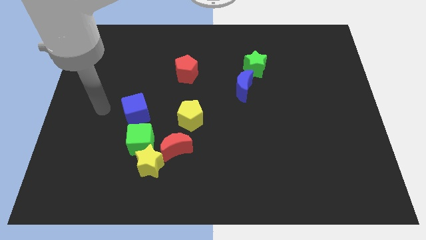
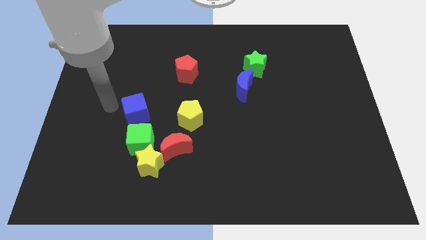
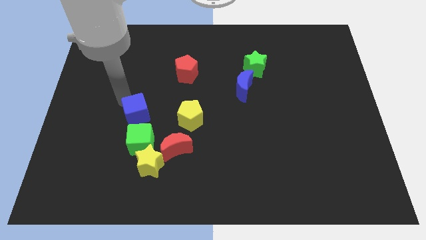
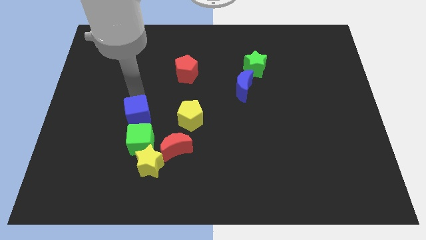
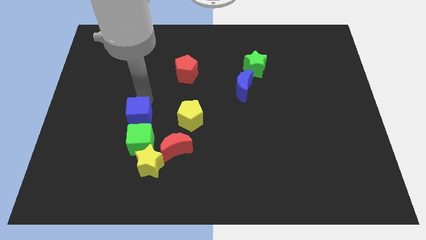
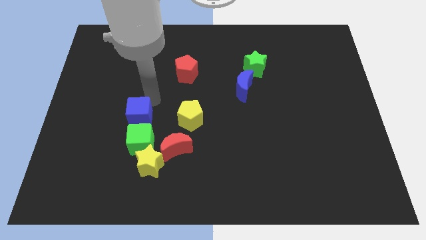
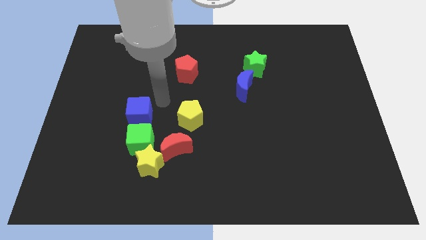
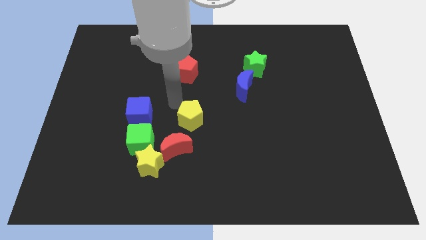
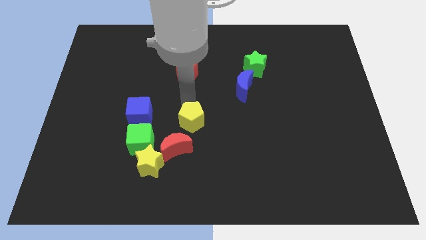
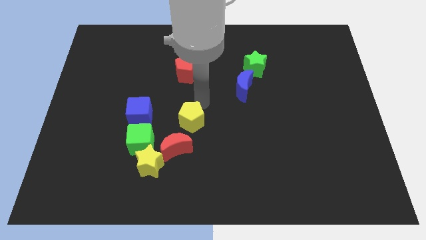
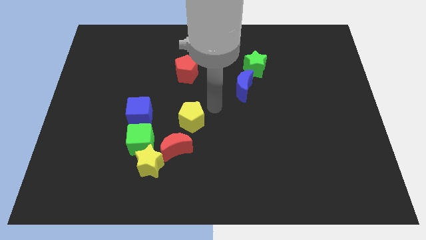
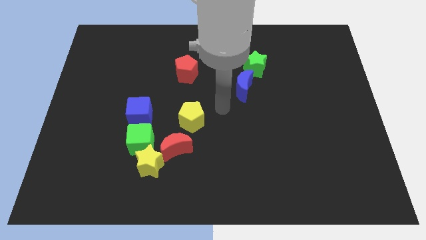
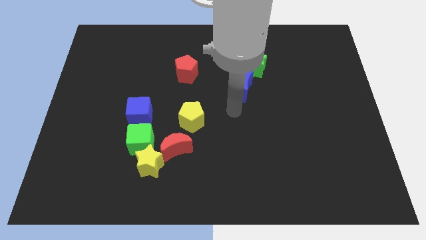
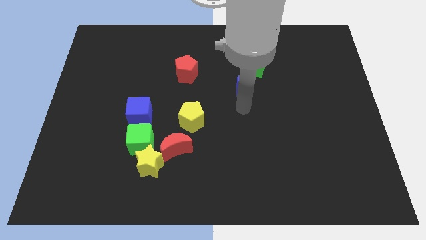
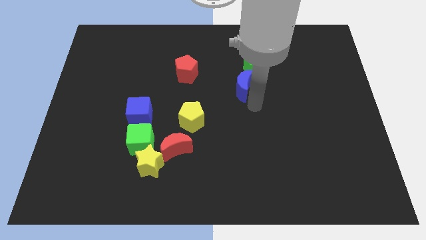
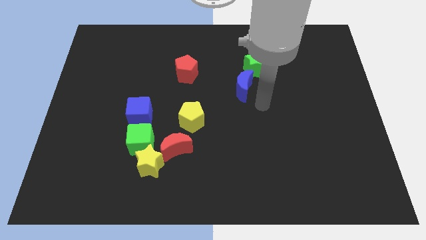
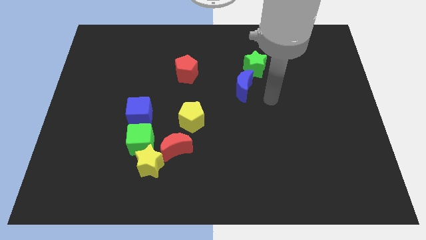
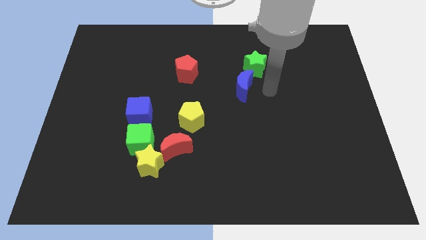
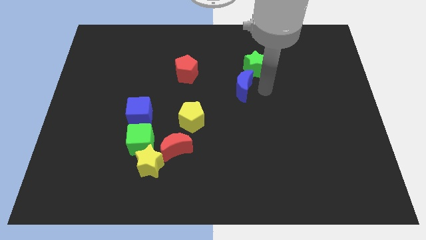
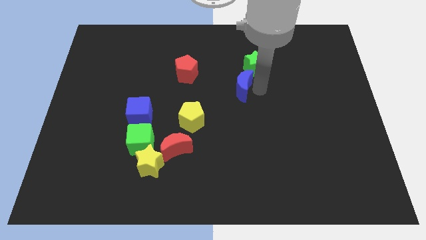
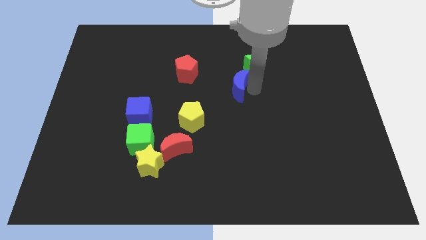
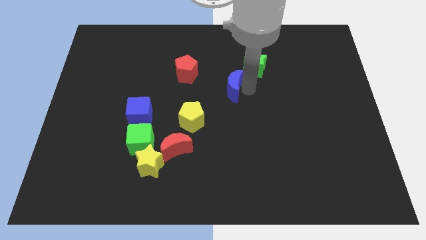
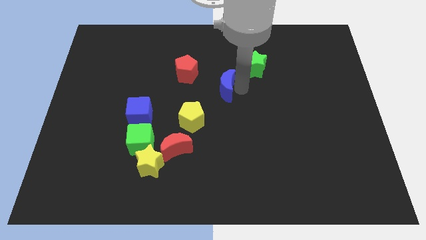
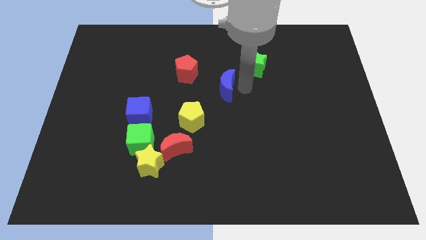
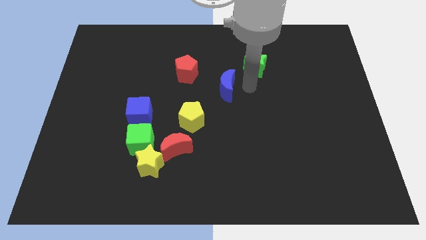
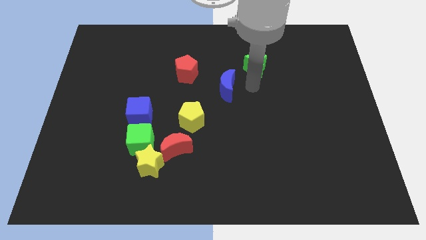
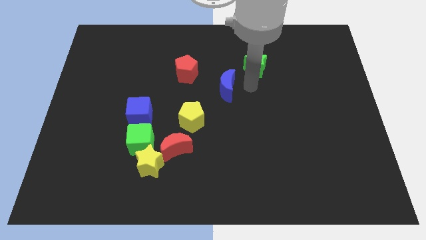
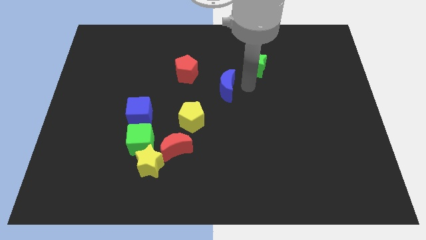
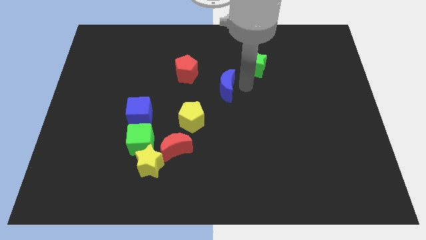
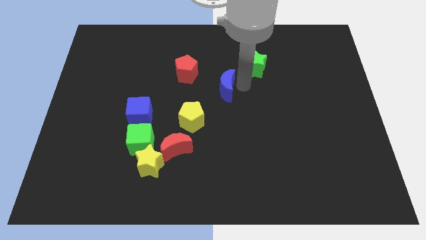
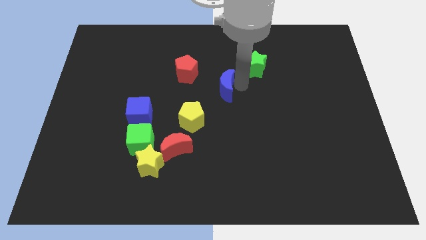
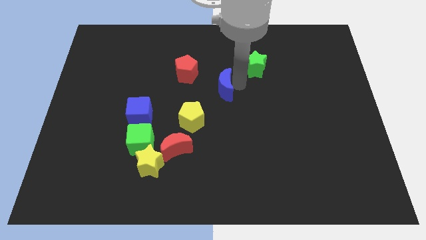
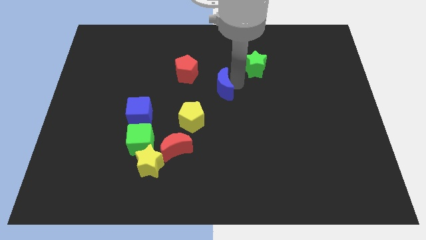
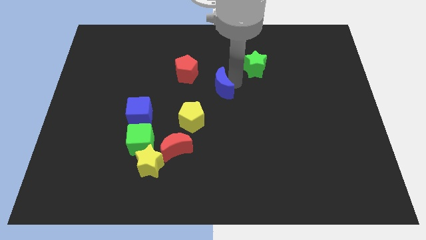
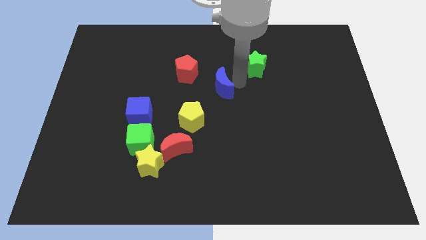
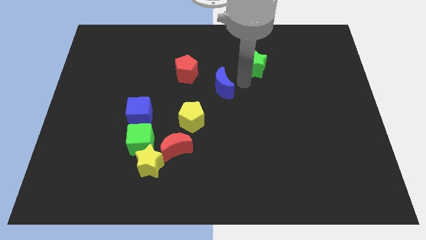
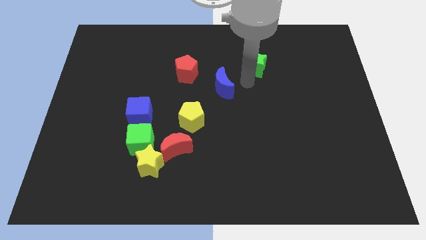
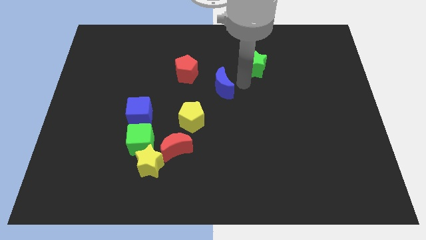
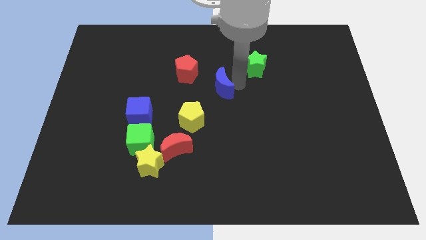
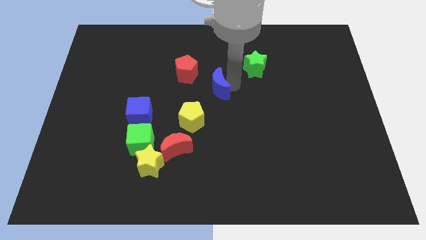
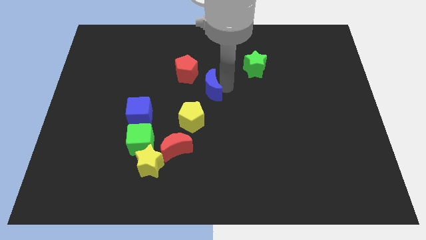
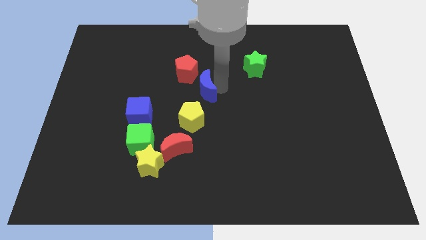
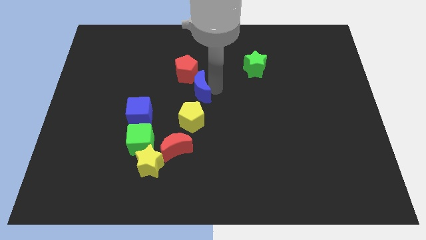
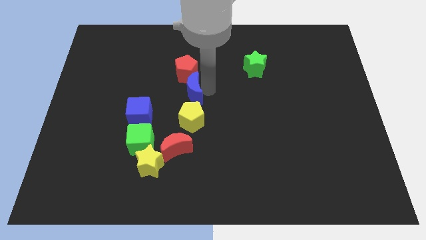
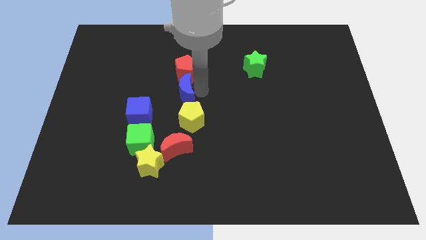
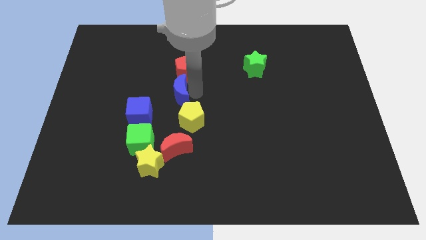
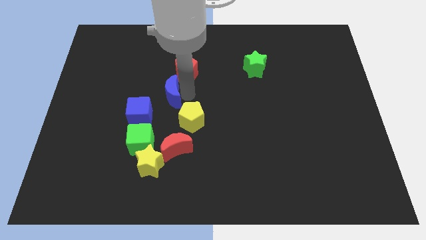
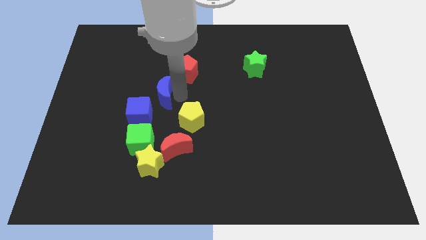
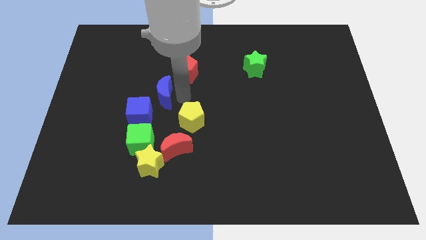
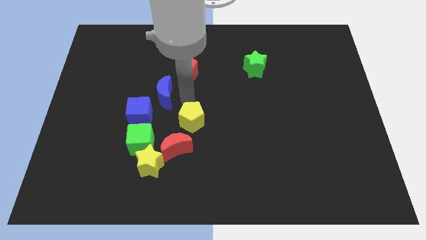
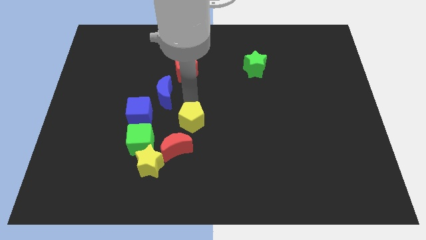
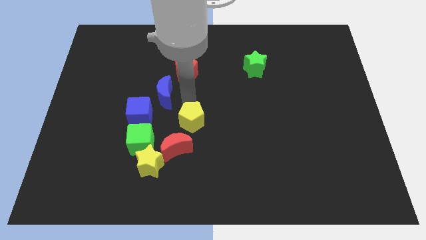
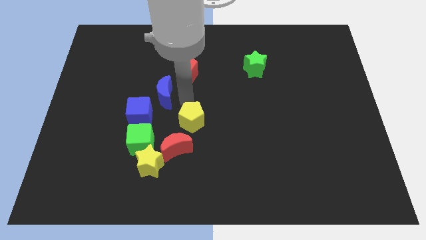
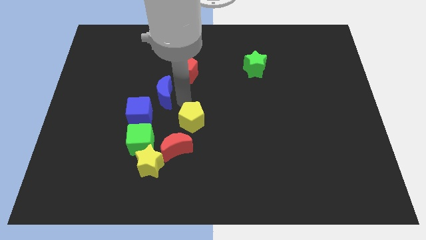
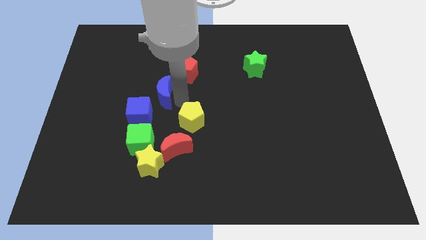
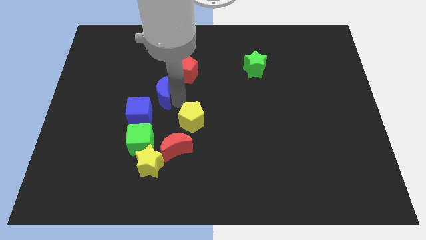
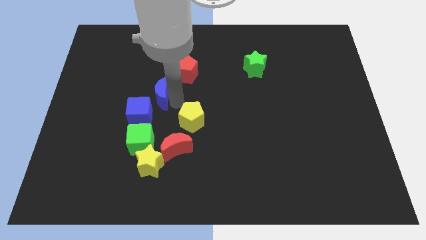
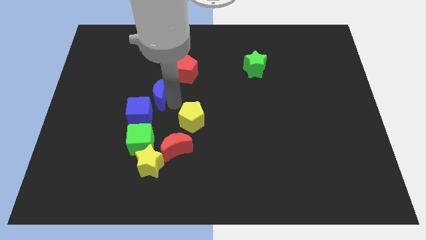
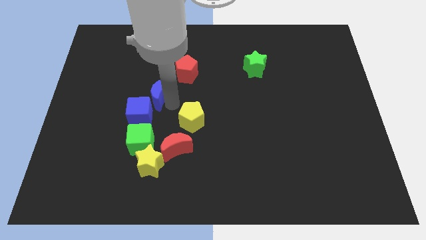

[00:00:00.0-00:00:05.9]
push the blue moon to the left

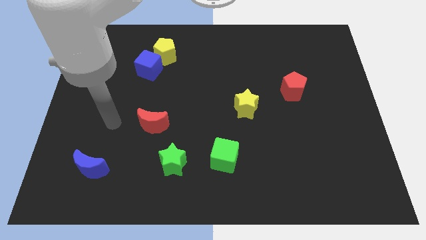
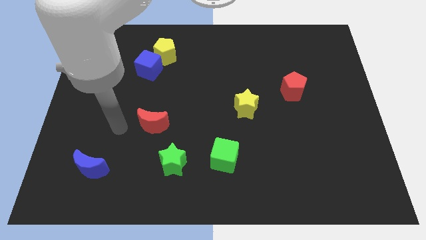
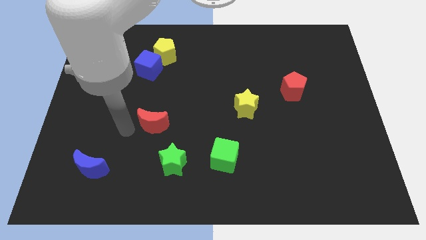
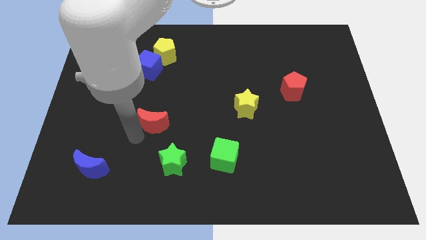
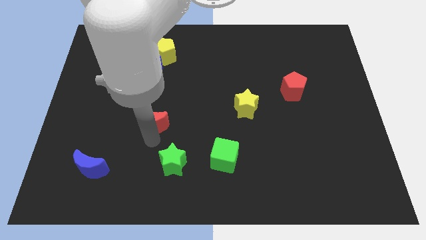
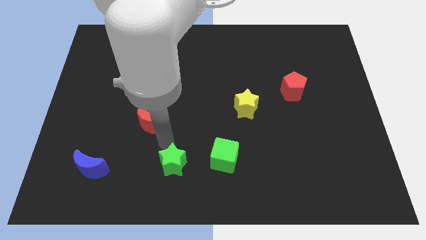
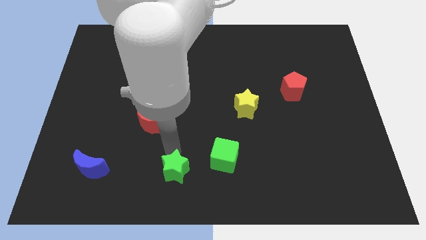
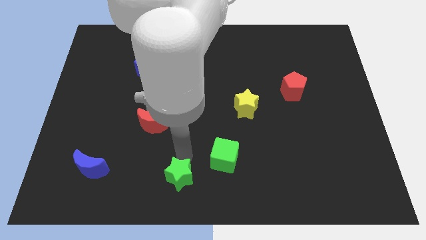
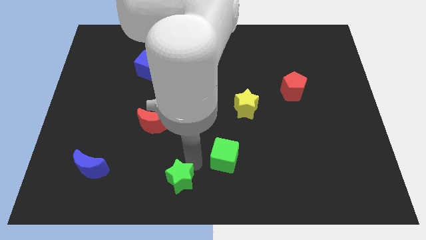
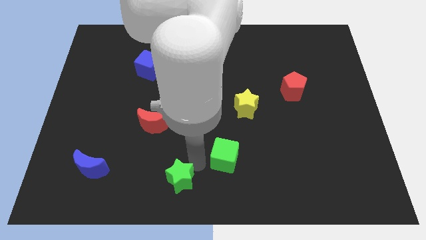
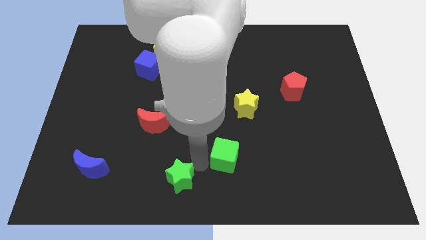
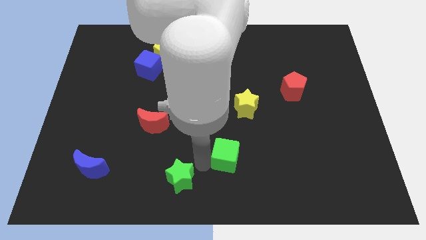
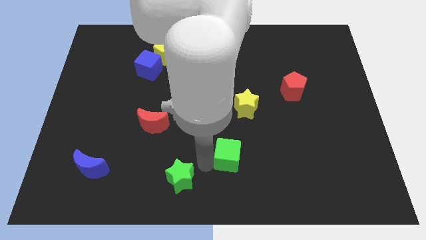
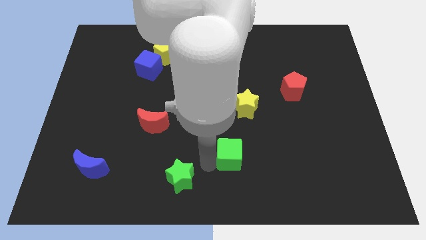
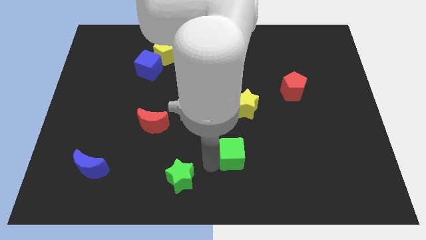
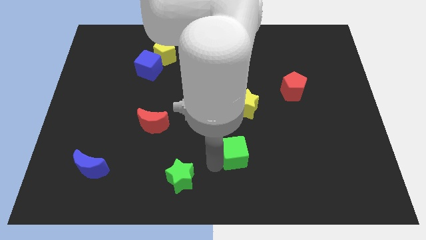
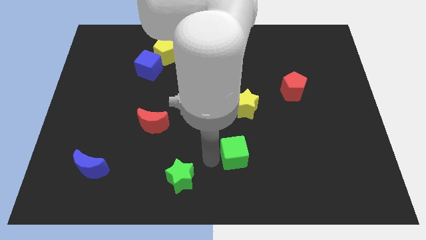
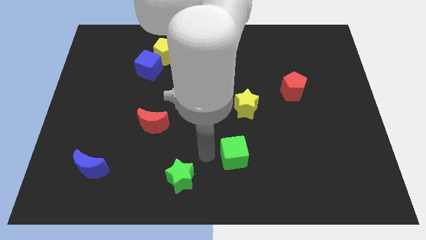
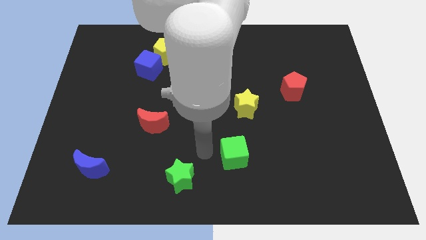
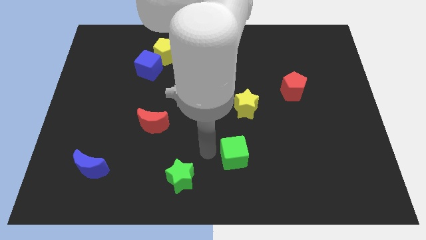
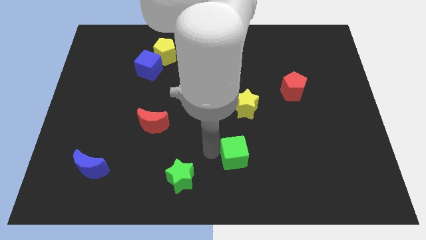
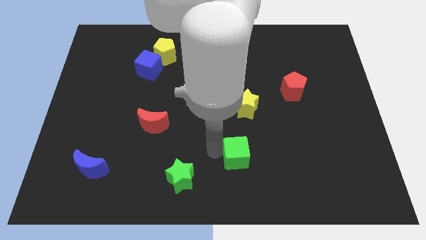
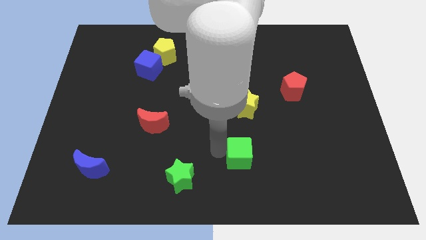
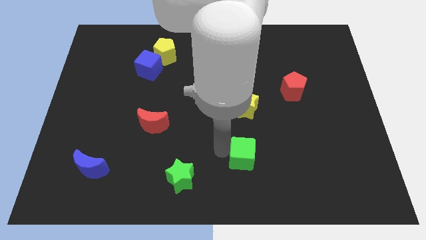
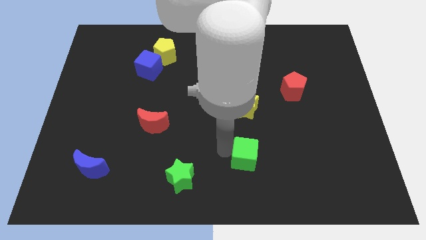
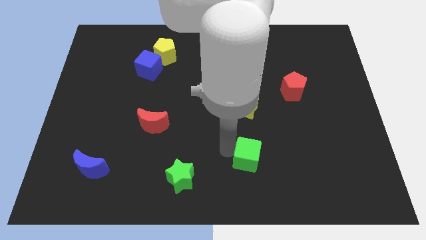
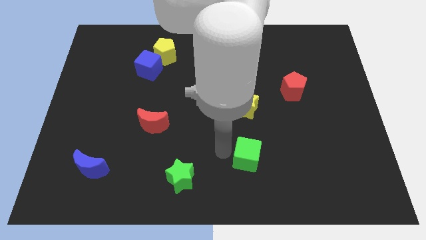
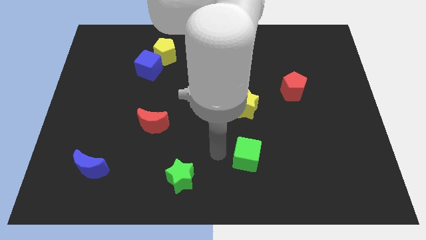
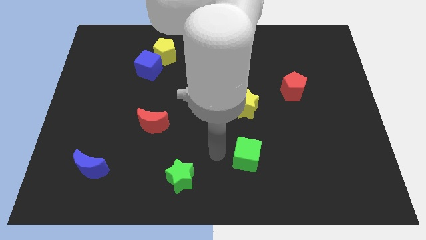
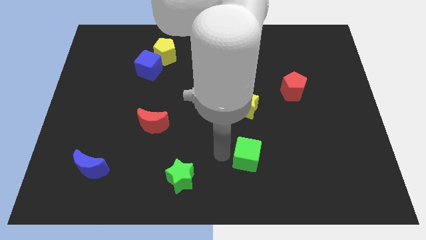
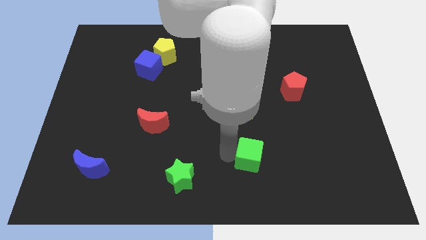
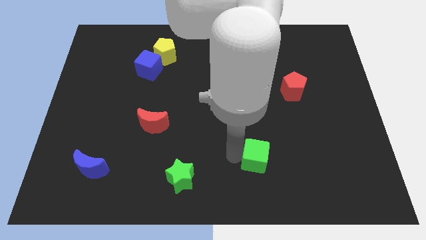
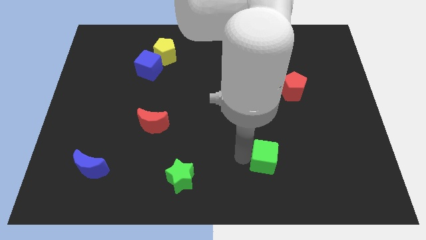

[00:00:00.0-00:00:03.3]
slightly push the green cube right
